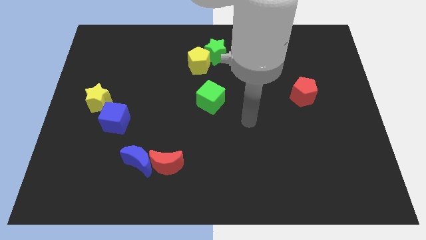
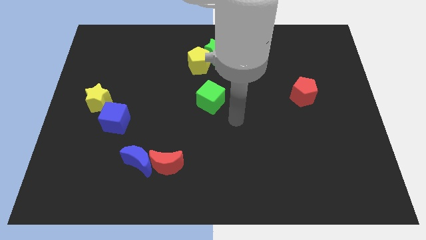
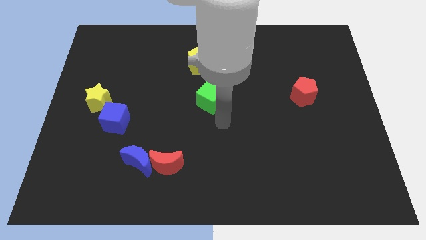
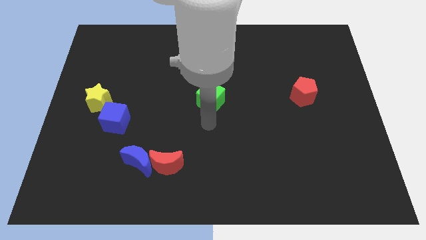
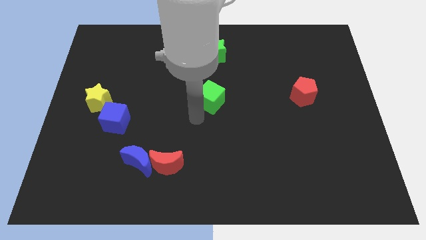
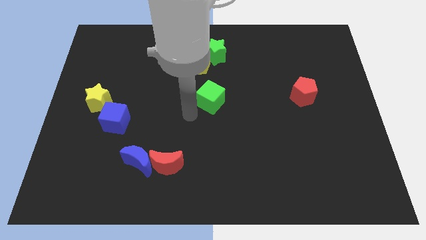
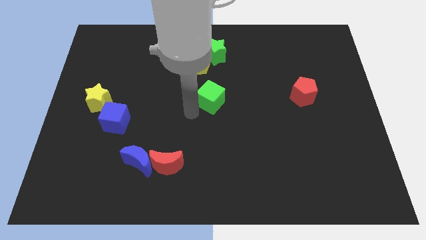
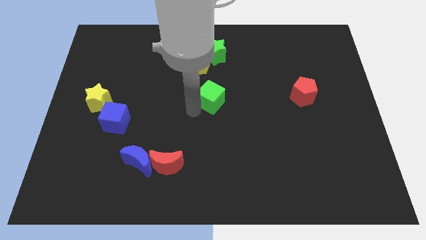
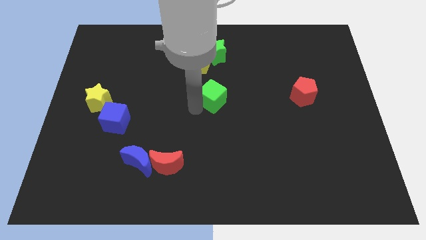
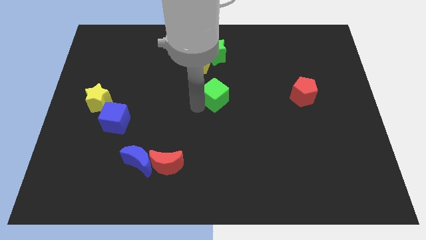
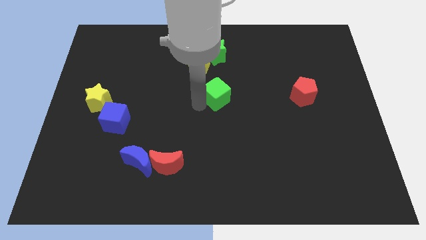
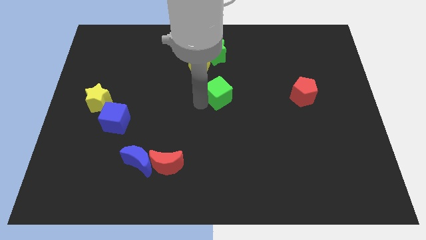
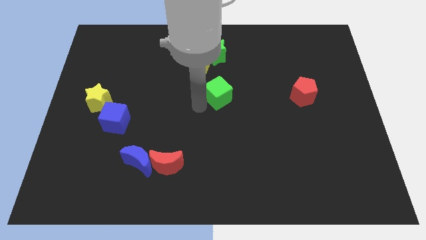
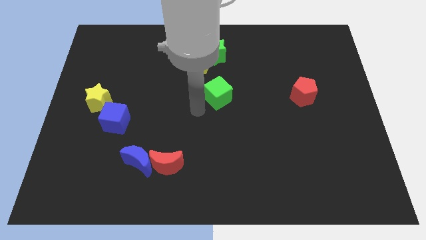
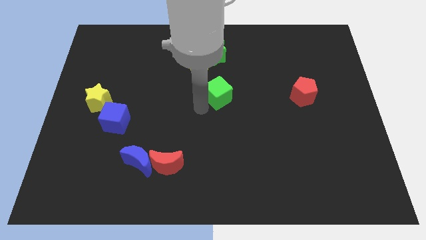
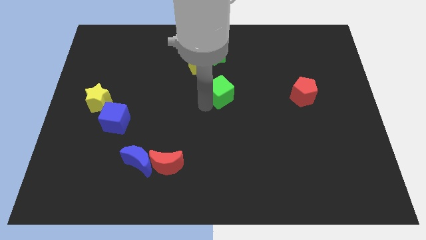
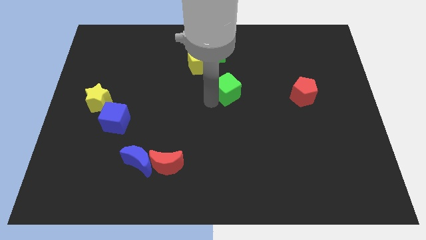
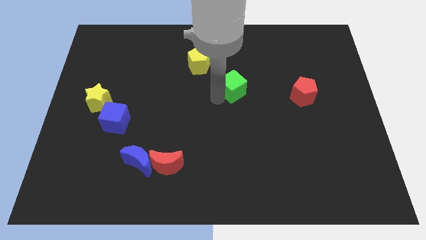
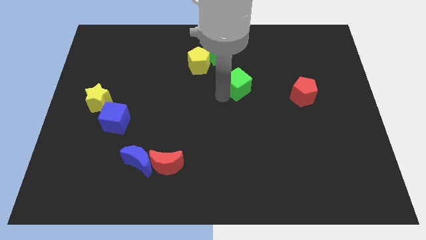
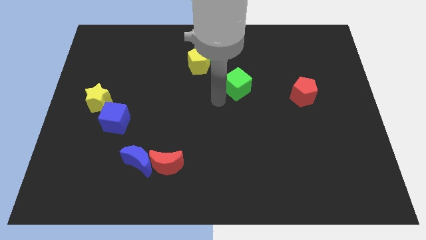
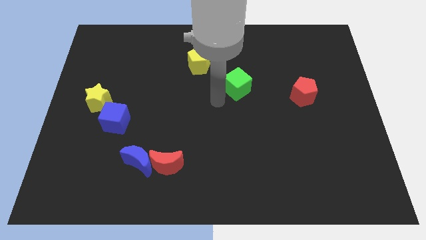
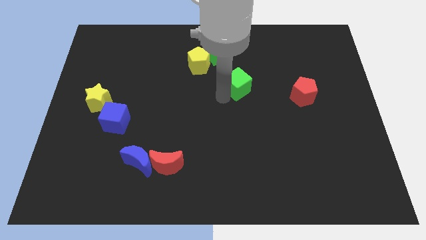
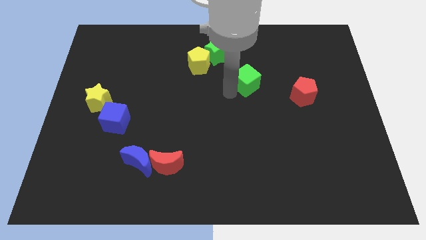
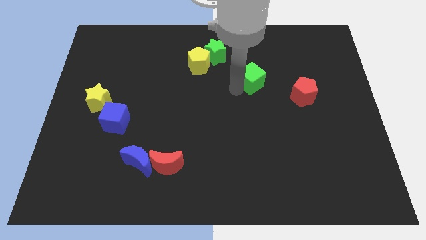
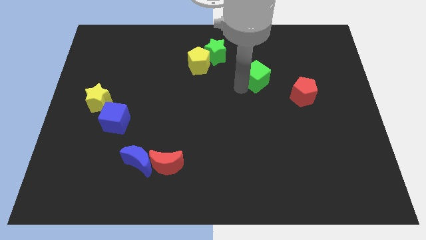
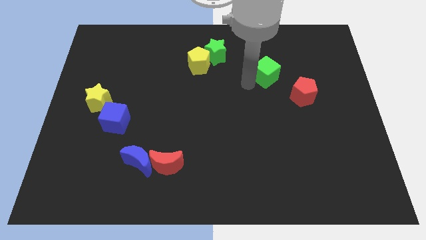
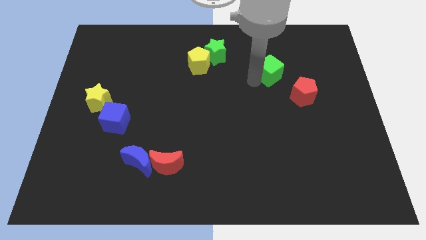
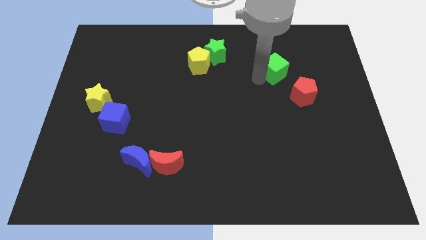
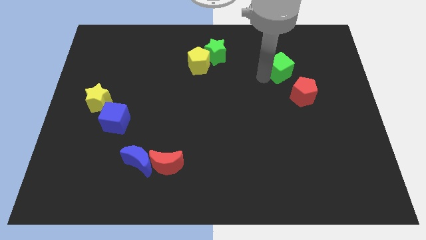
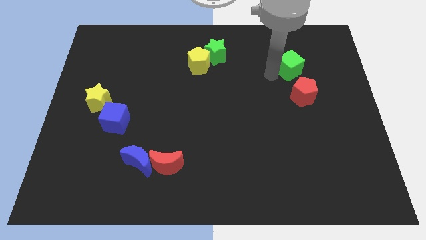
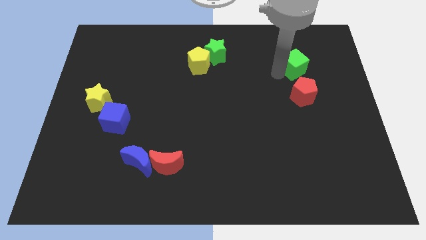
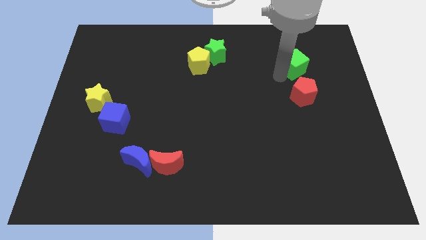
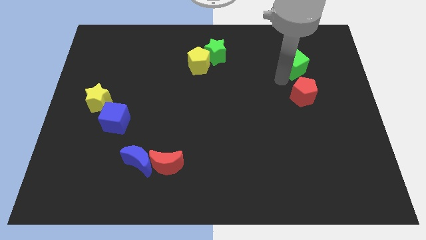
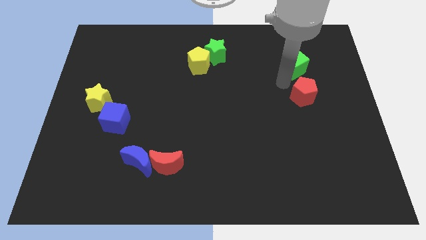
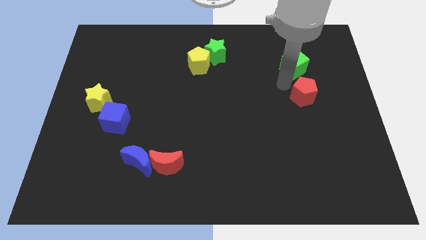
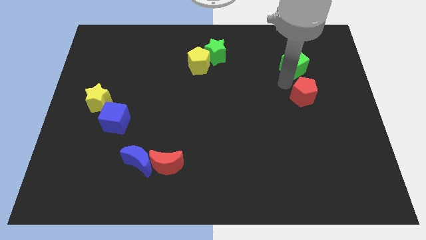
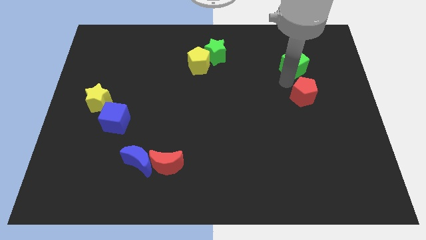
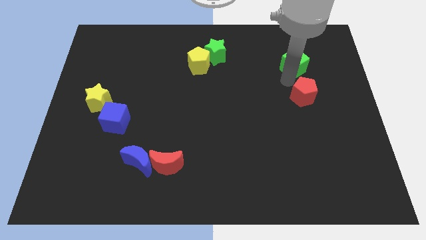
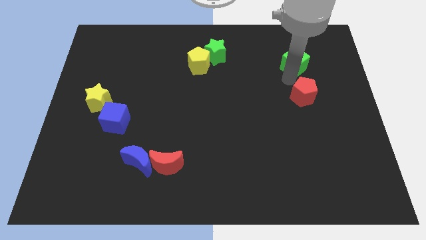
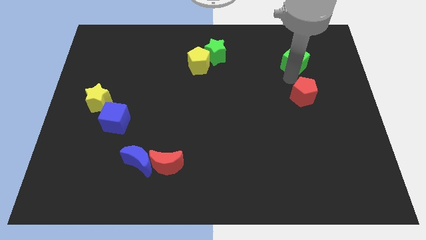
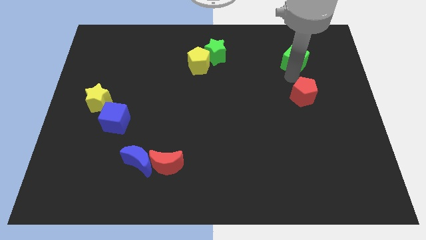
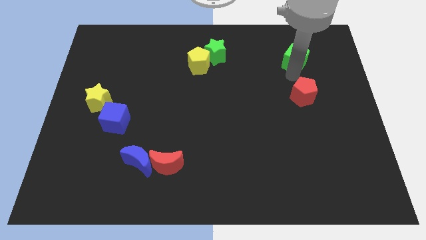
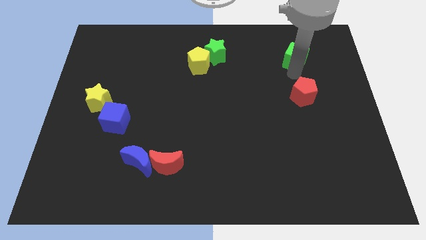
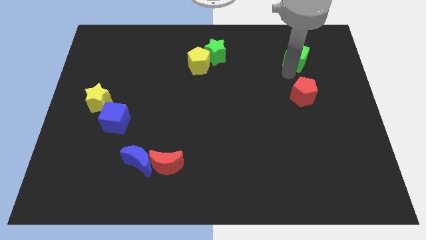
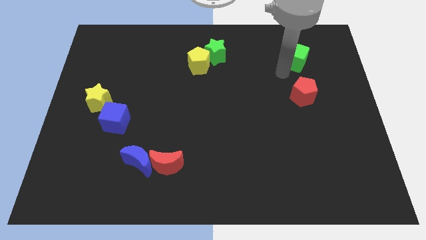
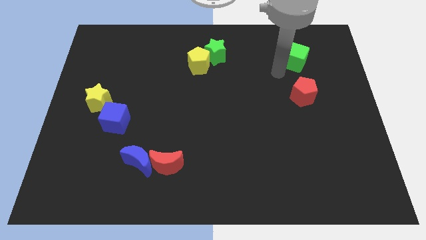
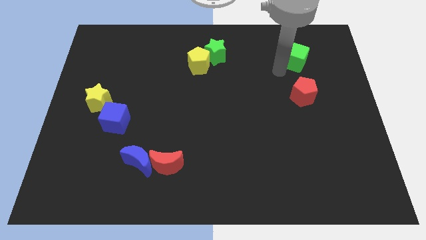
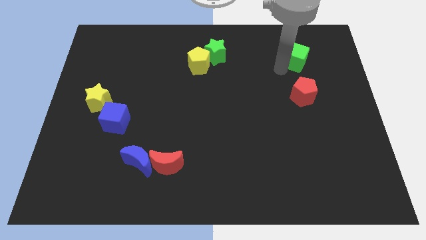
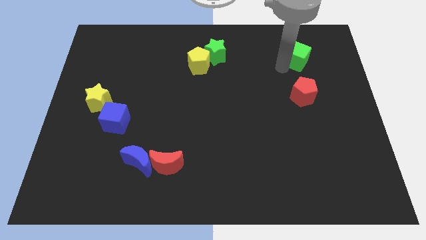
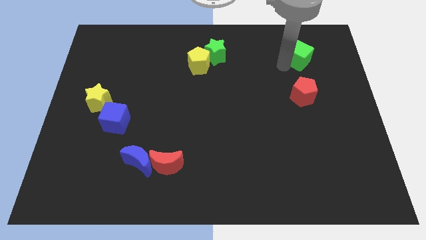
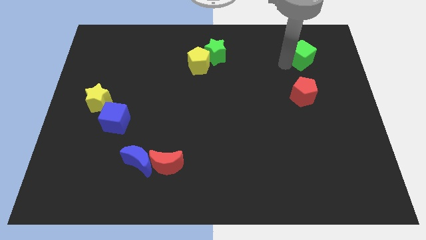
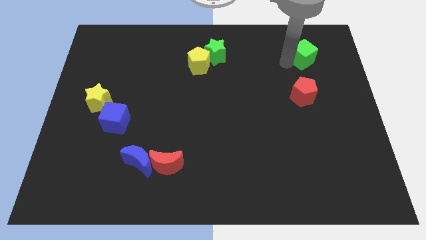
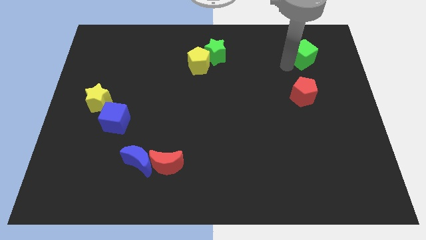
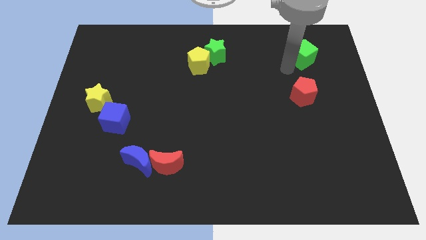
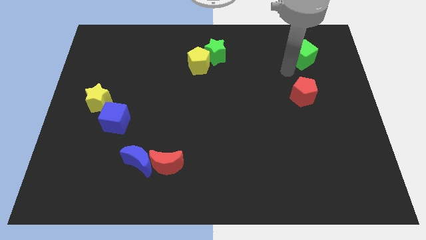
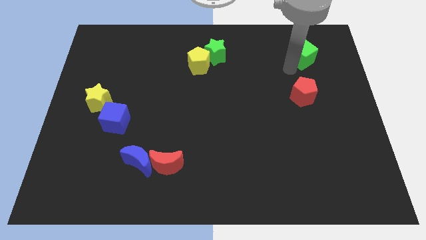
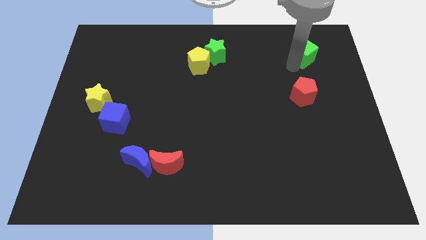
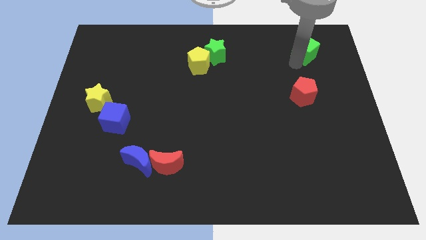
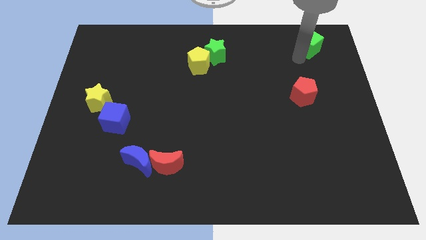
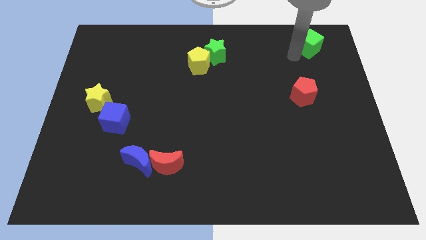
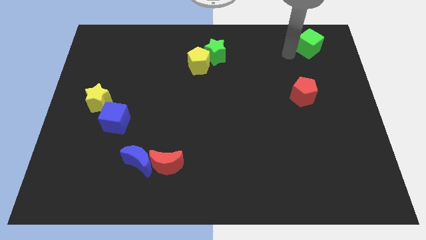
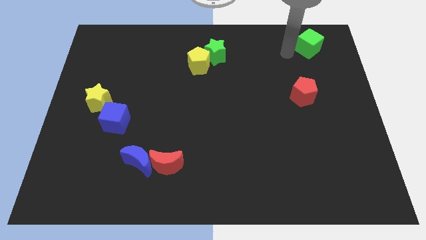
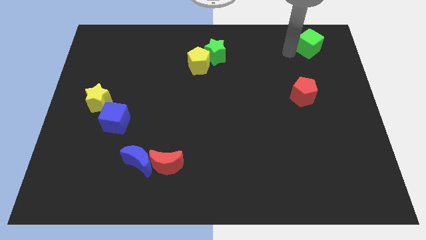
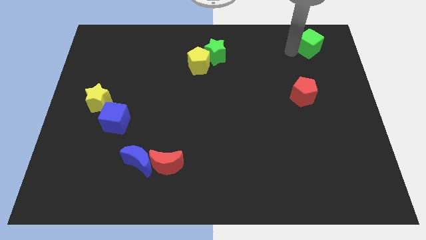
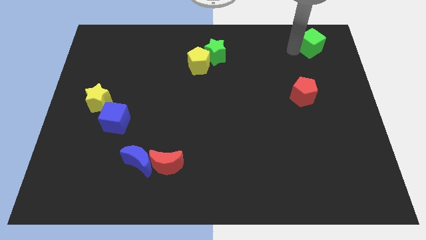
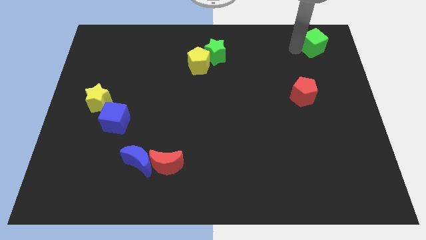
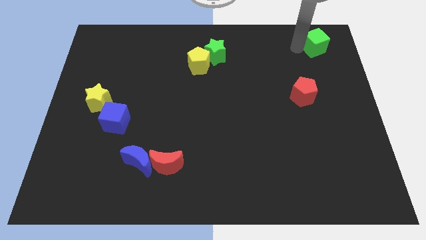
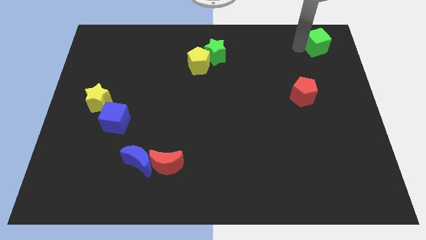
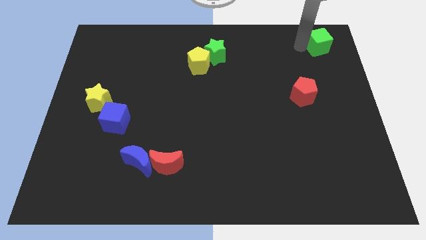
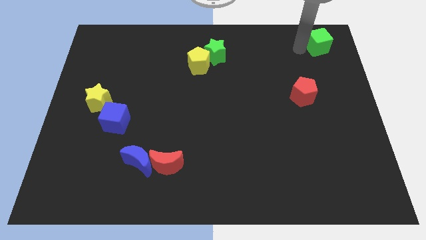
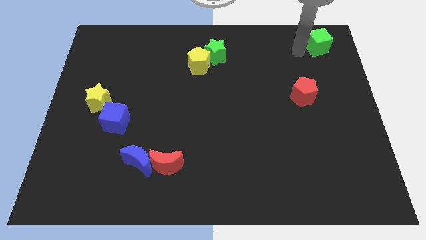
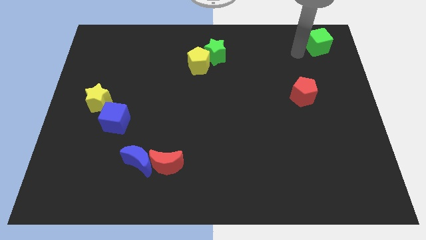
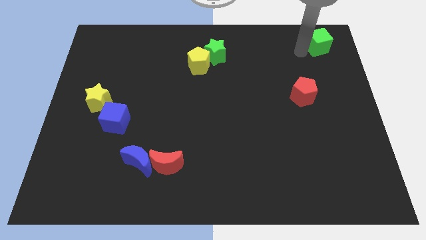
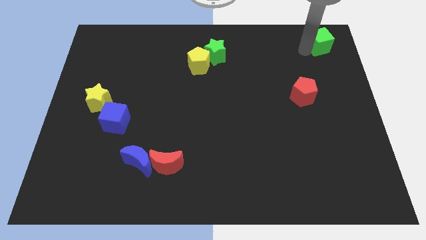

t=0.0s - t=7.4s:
push the green cube to the top right
